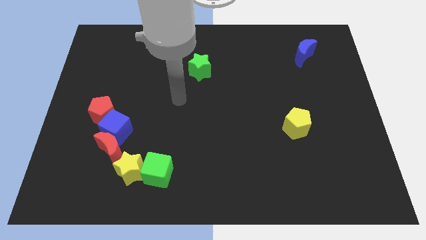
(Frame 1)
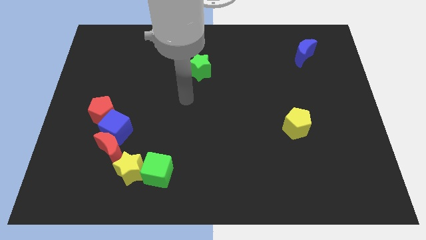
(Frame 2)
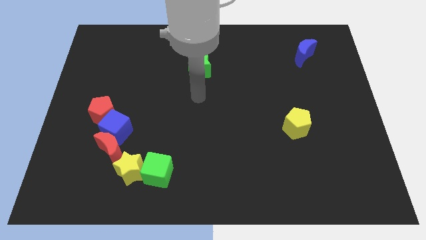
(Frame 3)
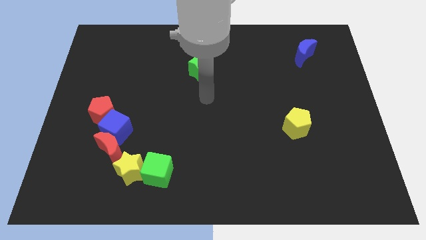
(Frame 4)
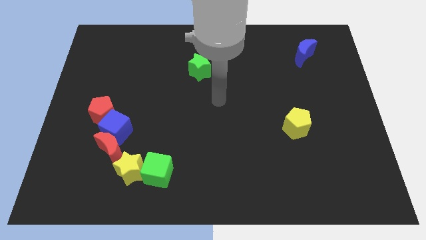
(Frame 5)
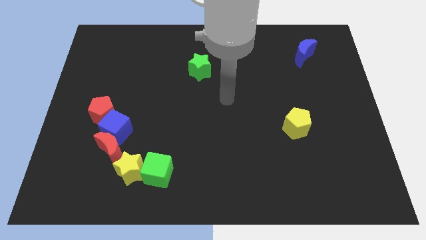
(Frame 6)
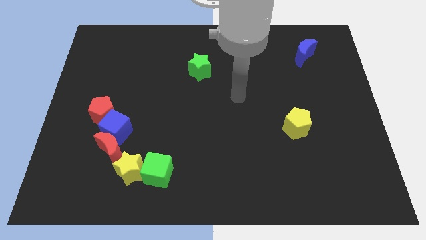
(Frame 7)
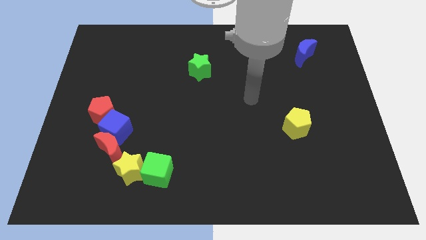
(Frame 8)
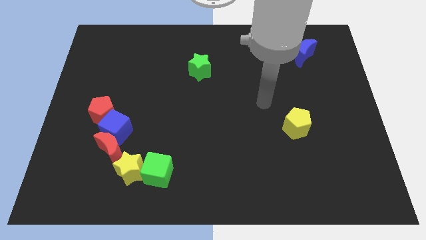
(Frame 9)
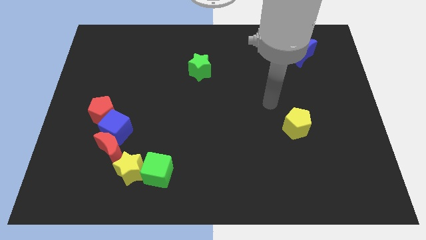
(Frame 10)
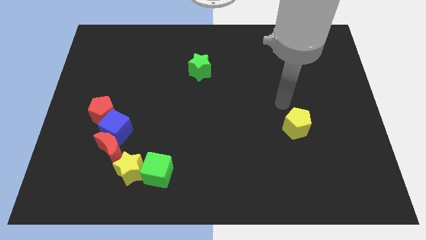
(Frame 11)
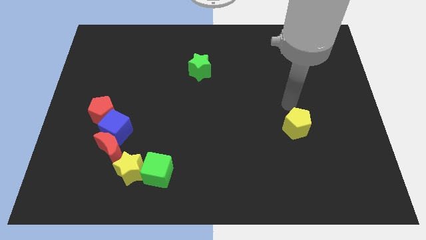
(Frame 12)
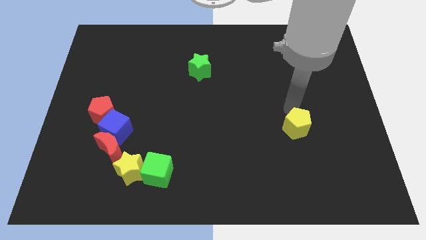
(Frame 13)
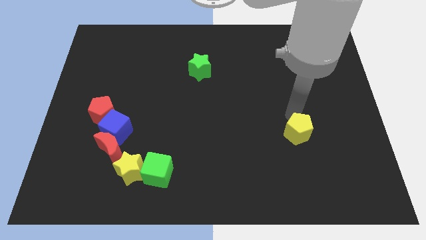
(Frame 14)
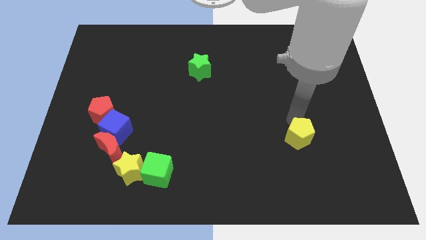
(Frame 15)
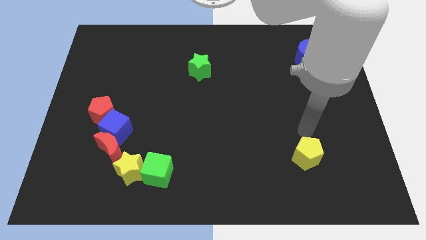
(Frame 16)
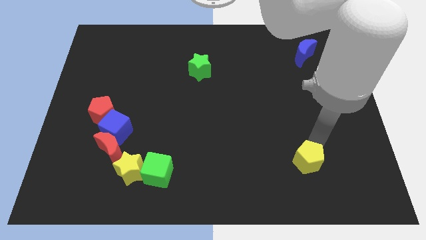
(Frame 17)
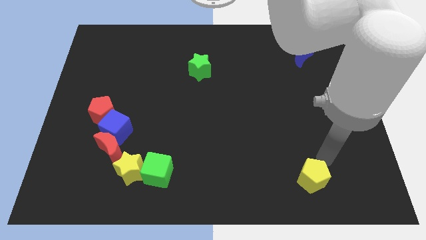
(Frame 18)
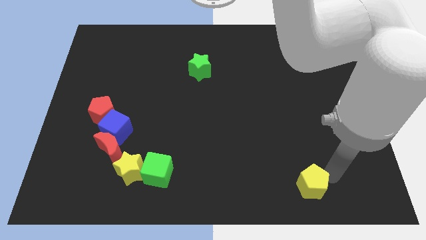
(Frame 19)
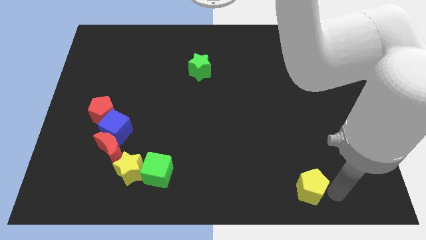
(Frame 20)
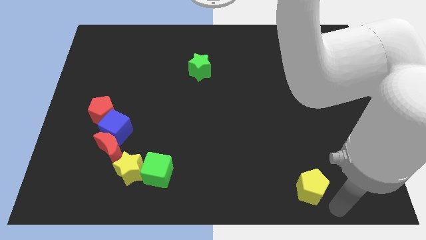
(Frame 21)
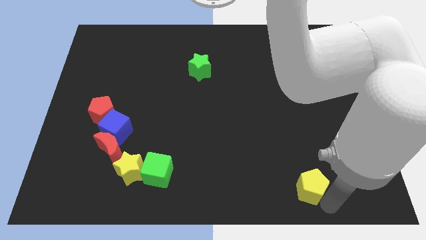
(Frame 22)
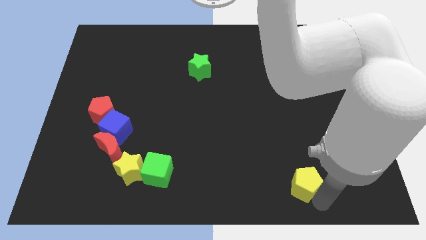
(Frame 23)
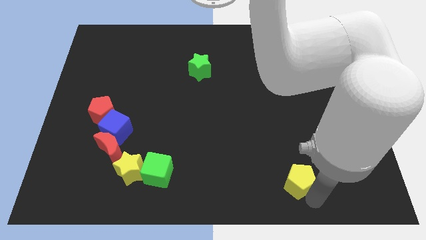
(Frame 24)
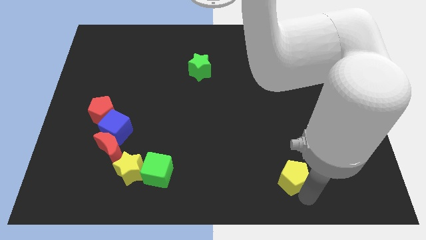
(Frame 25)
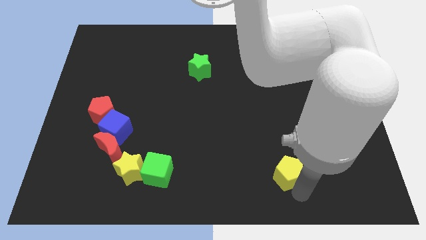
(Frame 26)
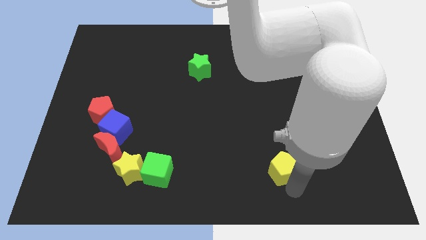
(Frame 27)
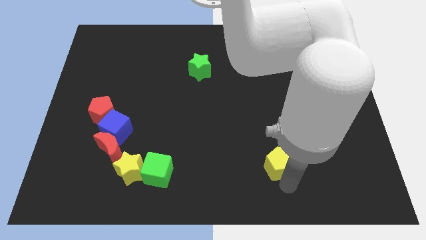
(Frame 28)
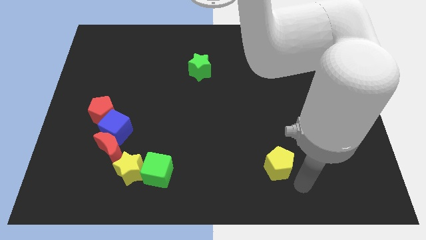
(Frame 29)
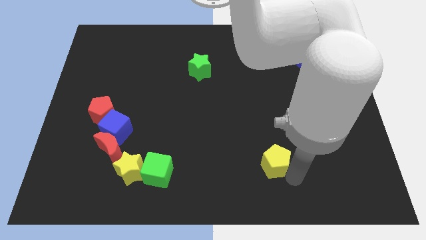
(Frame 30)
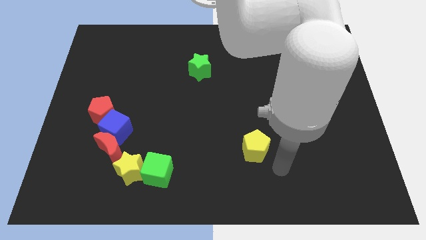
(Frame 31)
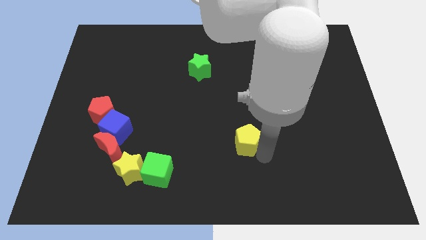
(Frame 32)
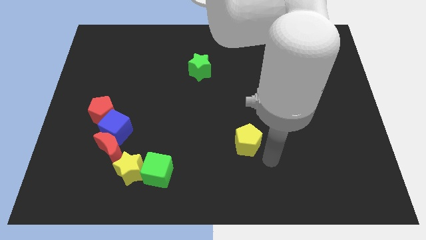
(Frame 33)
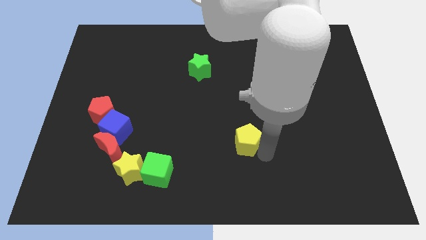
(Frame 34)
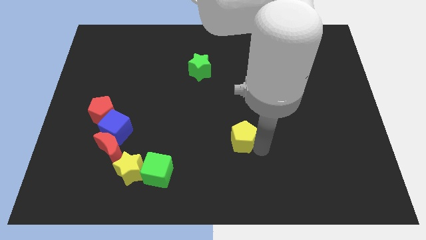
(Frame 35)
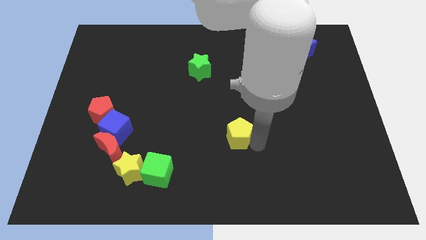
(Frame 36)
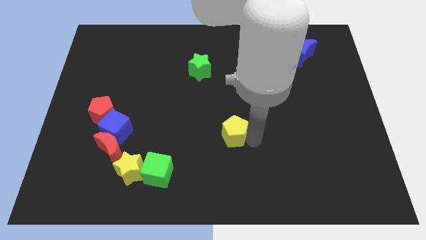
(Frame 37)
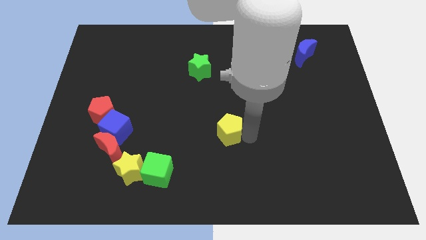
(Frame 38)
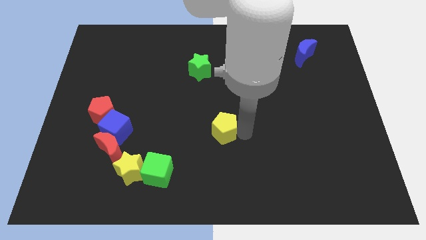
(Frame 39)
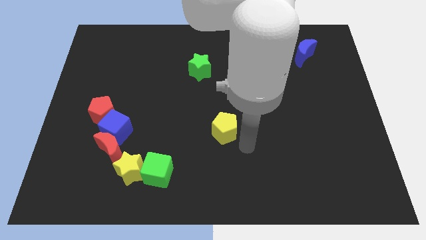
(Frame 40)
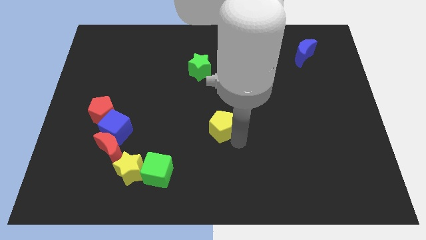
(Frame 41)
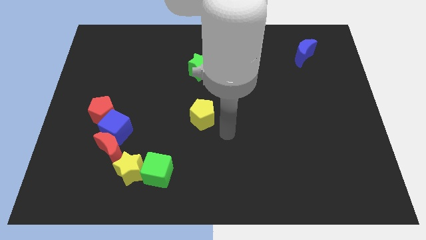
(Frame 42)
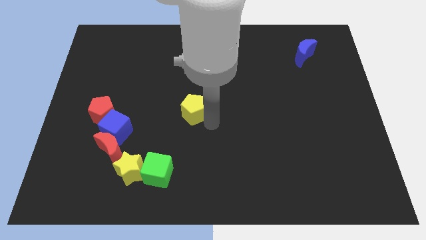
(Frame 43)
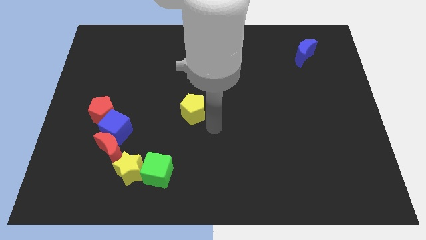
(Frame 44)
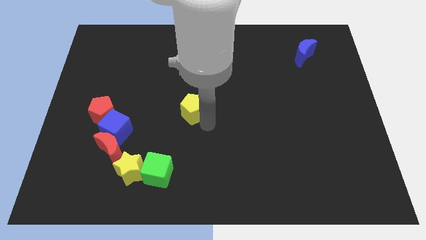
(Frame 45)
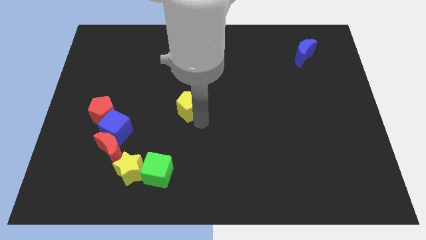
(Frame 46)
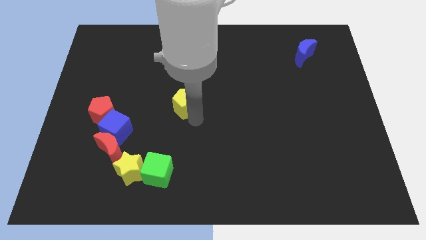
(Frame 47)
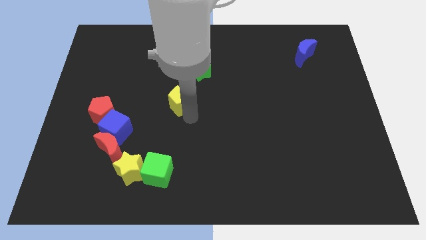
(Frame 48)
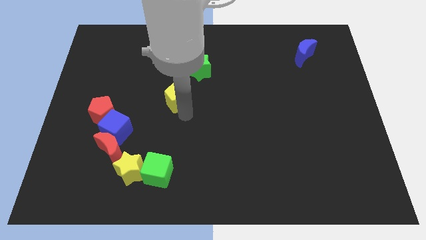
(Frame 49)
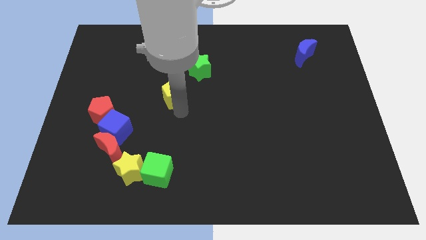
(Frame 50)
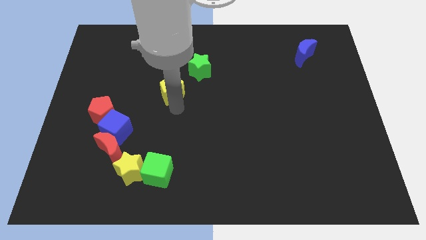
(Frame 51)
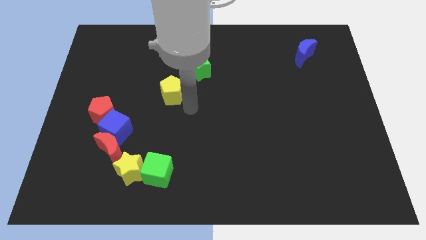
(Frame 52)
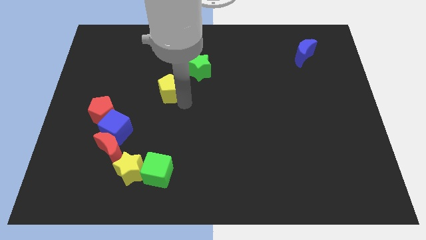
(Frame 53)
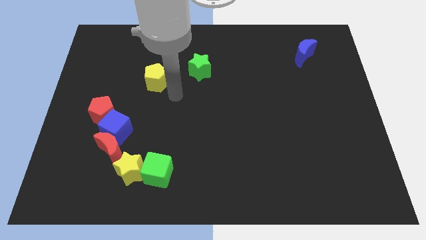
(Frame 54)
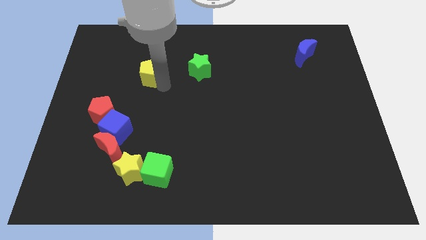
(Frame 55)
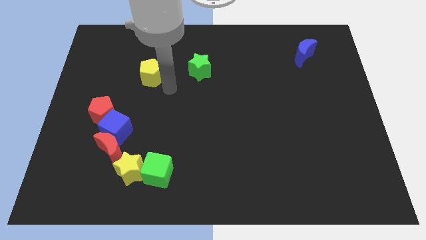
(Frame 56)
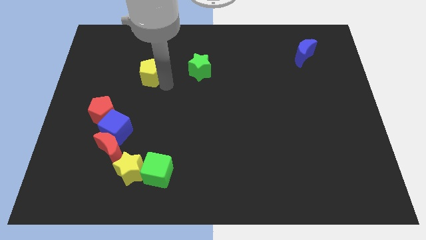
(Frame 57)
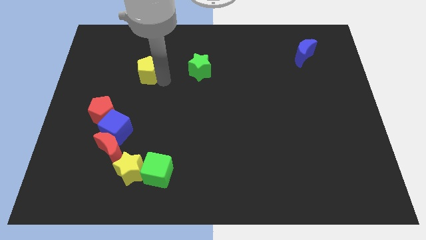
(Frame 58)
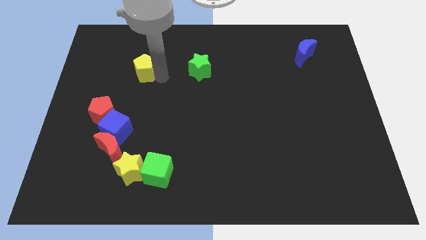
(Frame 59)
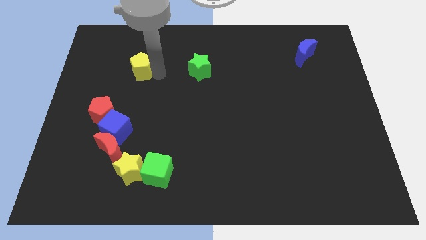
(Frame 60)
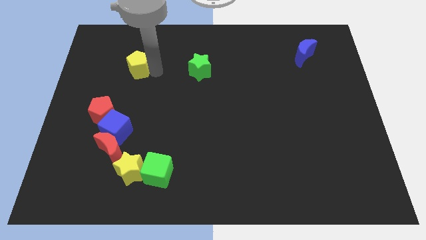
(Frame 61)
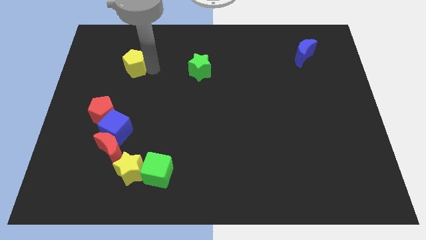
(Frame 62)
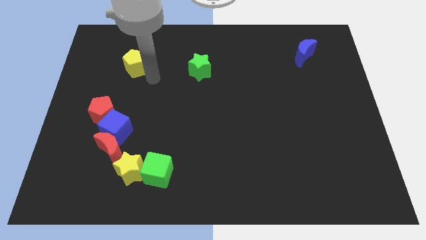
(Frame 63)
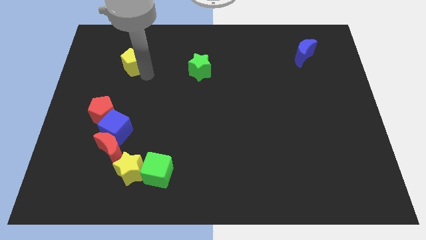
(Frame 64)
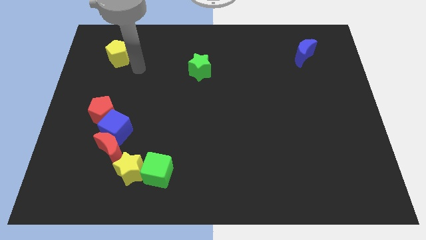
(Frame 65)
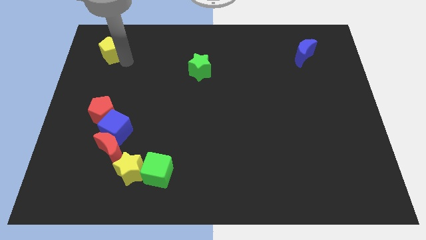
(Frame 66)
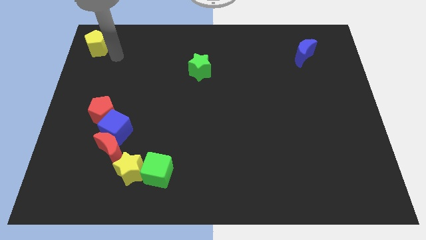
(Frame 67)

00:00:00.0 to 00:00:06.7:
move the yellow pentagon to the top left

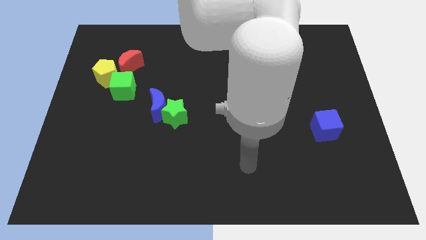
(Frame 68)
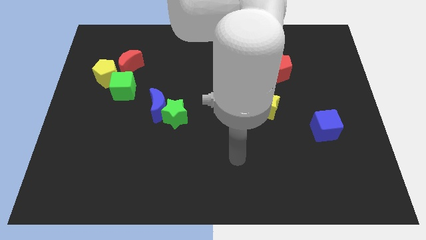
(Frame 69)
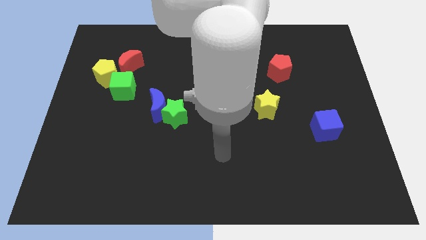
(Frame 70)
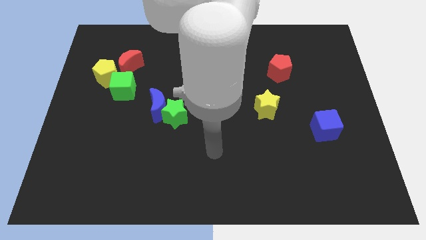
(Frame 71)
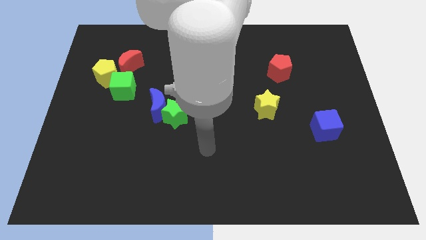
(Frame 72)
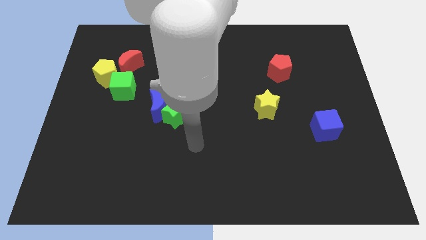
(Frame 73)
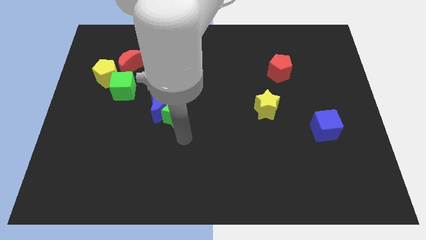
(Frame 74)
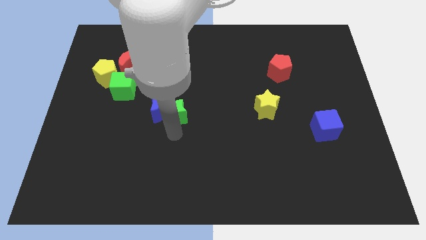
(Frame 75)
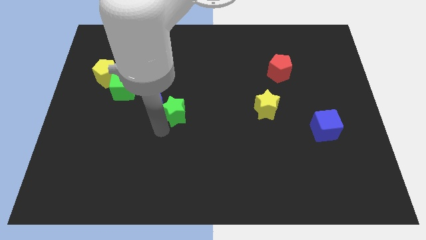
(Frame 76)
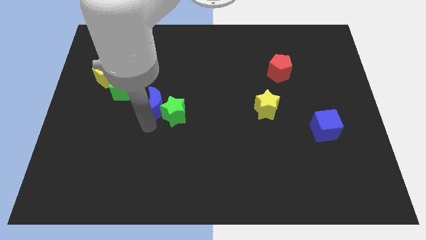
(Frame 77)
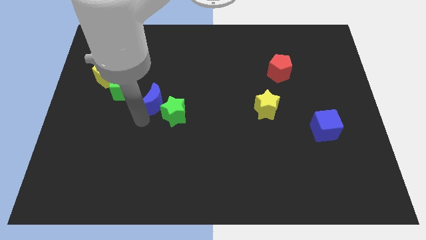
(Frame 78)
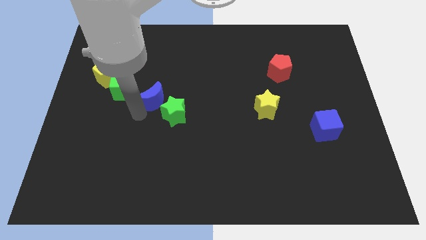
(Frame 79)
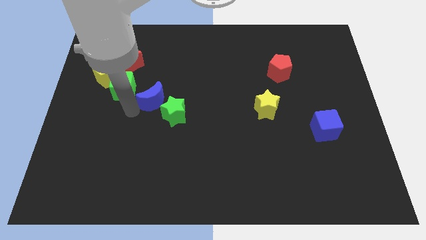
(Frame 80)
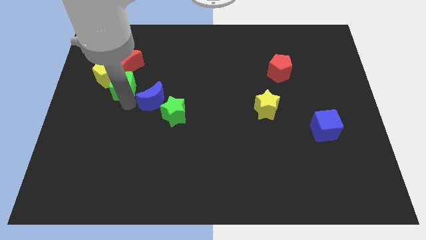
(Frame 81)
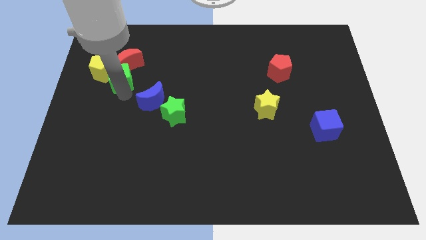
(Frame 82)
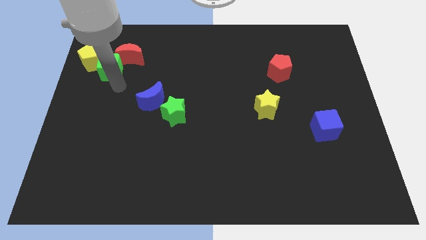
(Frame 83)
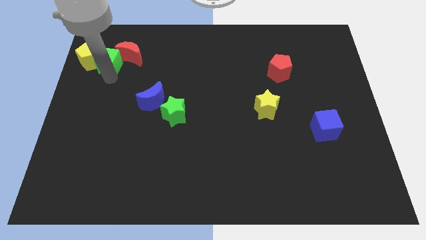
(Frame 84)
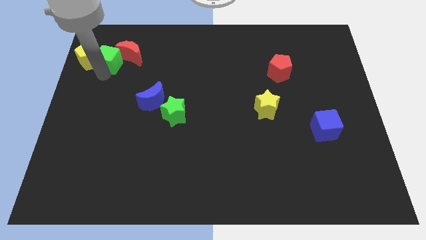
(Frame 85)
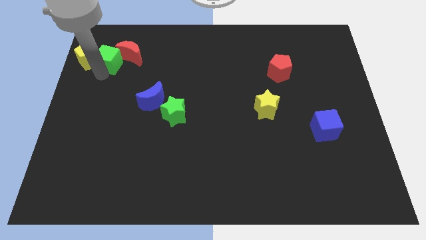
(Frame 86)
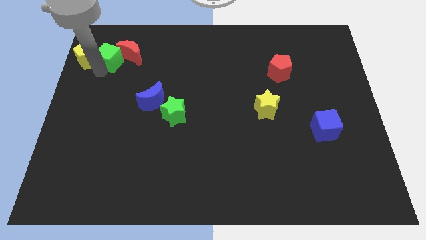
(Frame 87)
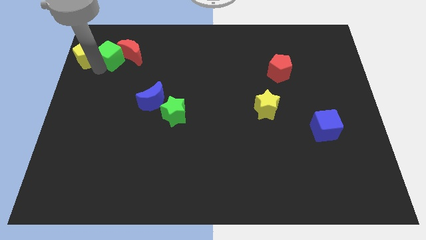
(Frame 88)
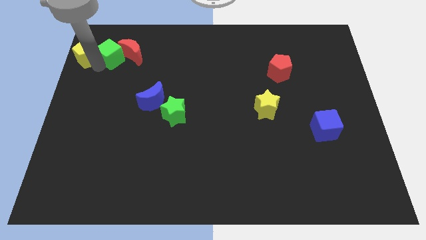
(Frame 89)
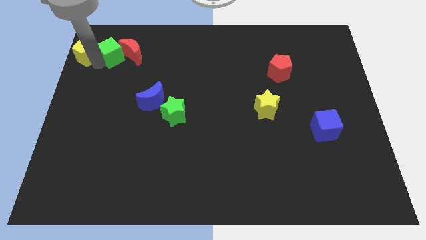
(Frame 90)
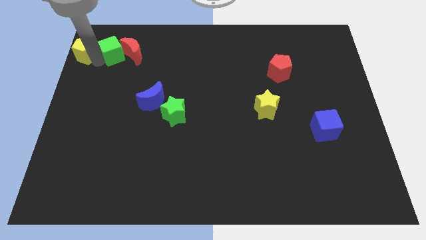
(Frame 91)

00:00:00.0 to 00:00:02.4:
slide the yellow pentagon to the top left
